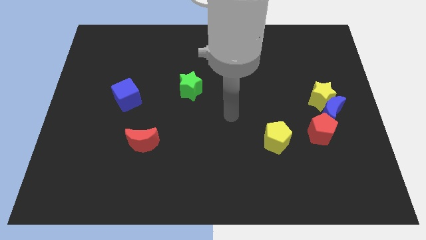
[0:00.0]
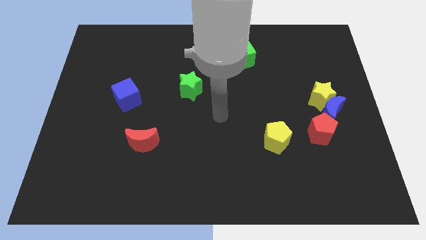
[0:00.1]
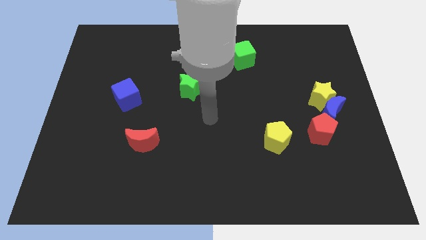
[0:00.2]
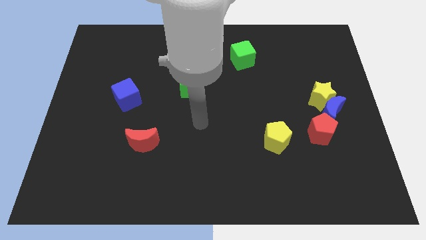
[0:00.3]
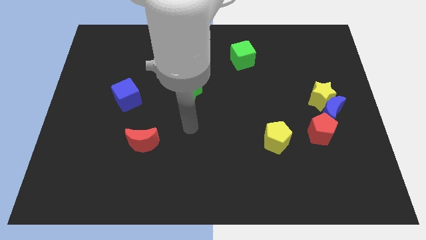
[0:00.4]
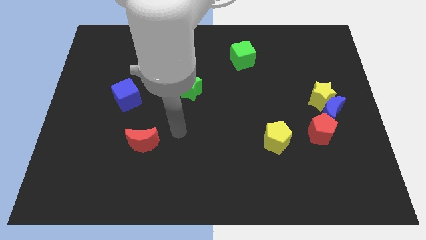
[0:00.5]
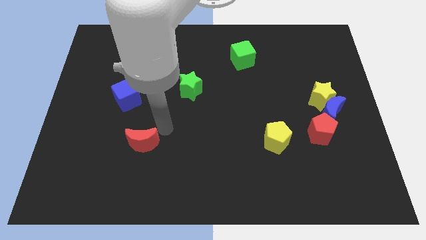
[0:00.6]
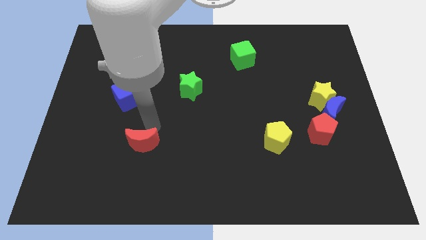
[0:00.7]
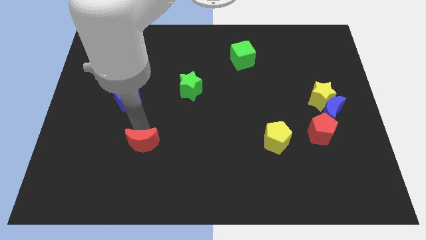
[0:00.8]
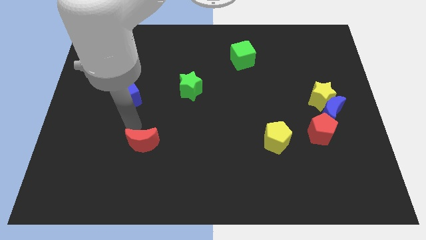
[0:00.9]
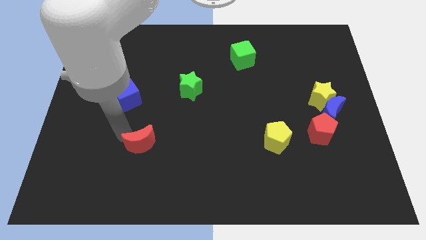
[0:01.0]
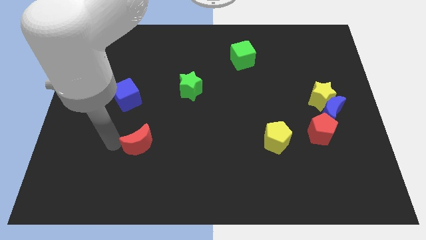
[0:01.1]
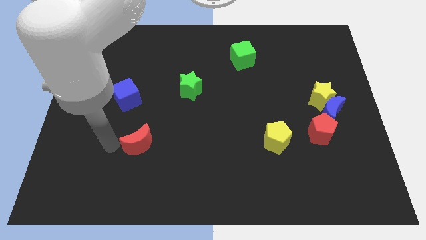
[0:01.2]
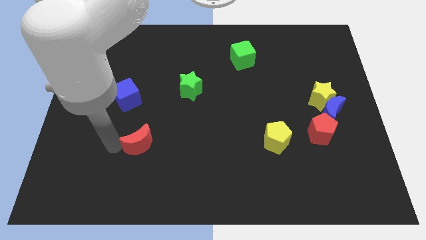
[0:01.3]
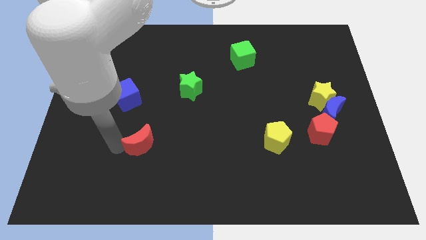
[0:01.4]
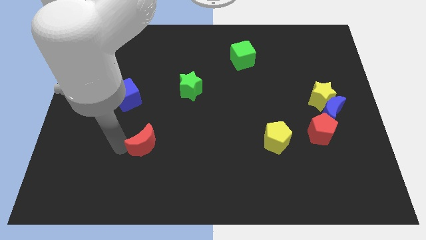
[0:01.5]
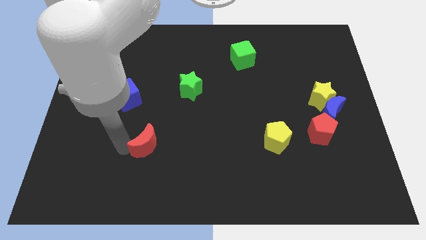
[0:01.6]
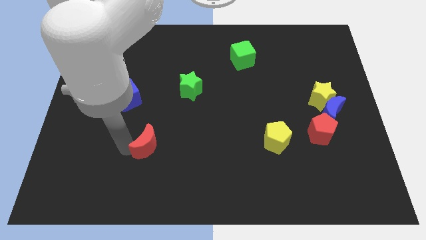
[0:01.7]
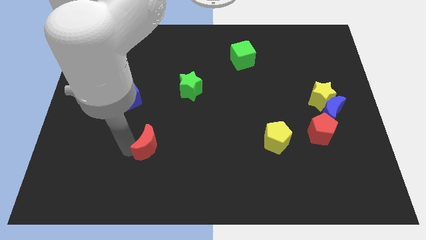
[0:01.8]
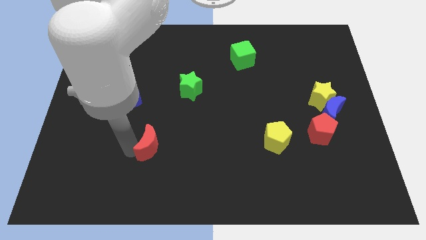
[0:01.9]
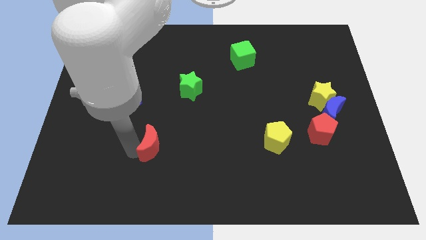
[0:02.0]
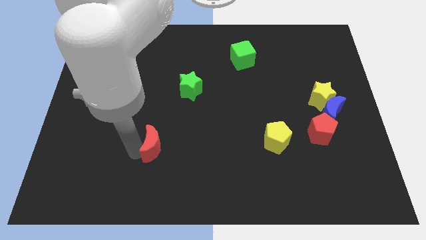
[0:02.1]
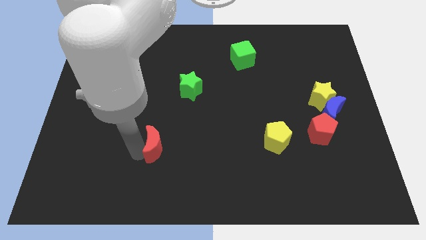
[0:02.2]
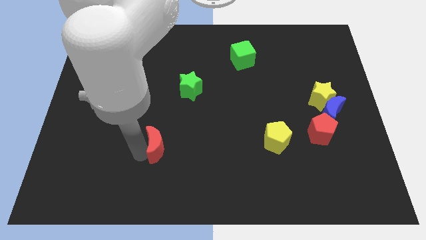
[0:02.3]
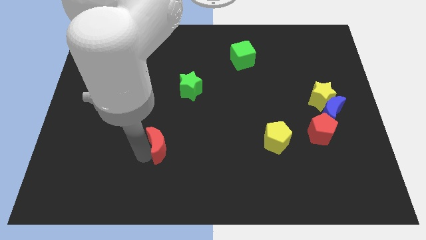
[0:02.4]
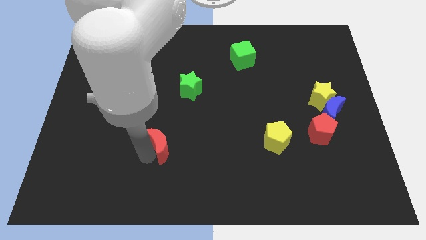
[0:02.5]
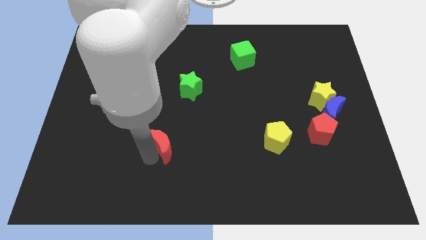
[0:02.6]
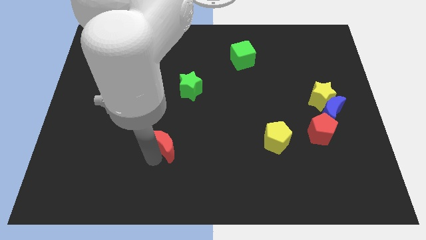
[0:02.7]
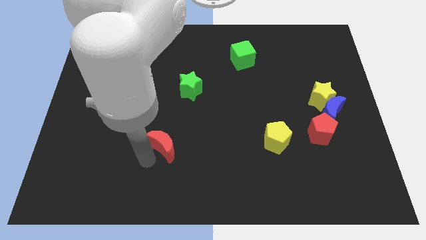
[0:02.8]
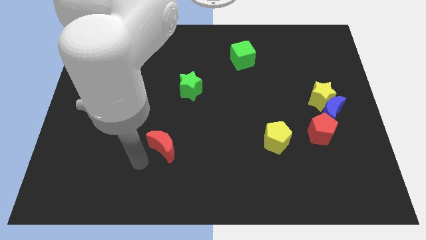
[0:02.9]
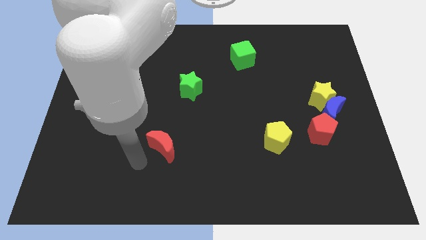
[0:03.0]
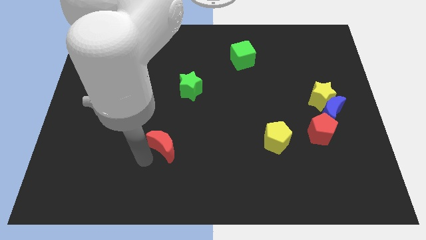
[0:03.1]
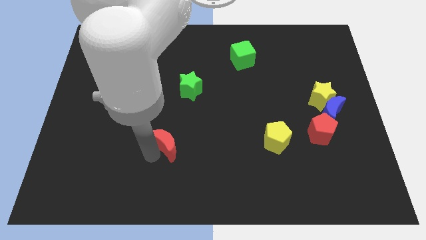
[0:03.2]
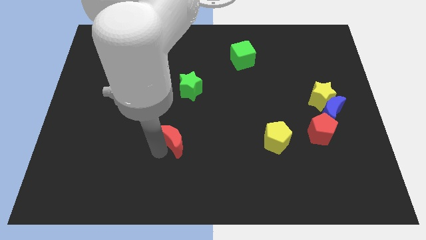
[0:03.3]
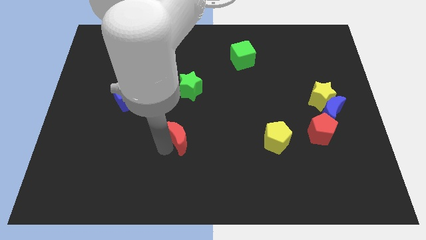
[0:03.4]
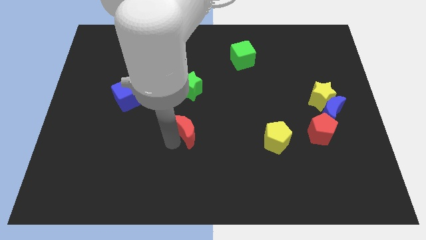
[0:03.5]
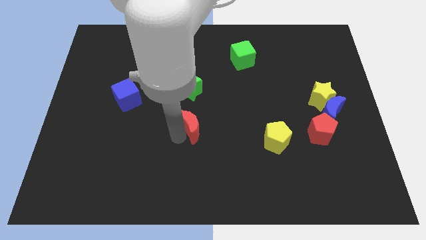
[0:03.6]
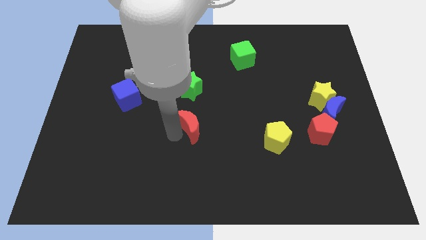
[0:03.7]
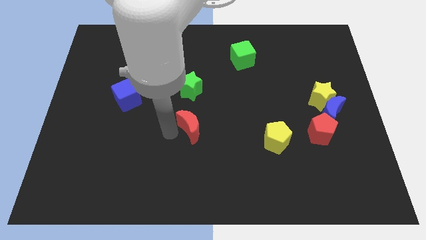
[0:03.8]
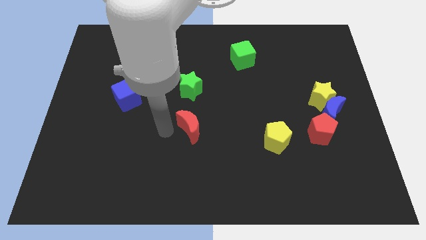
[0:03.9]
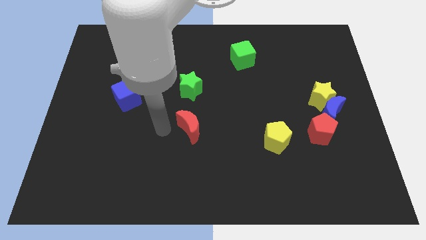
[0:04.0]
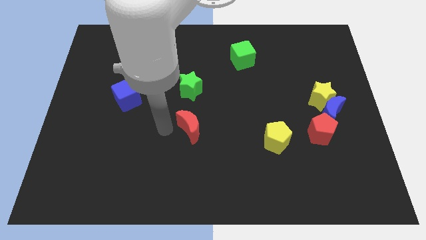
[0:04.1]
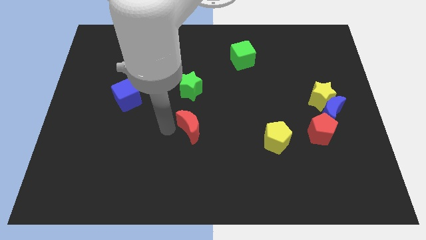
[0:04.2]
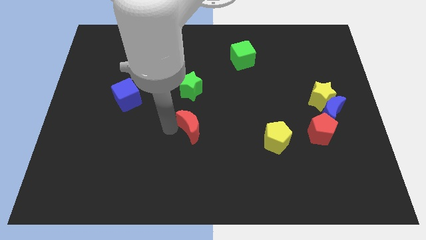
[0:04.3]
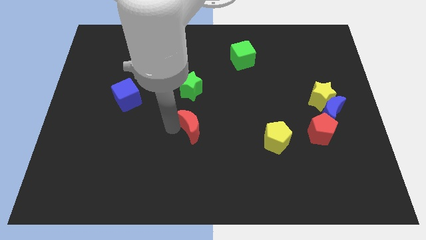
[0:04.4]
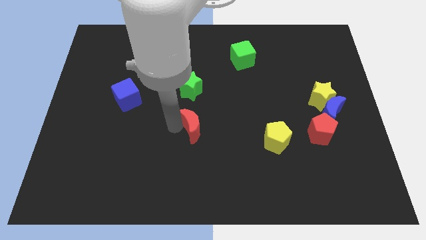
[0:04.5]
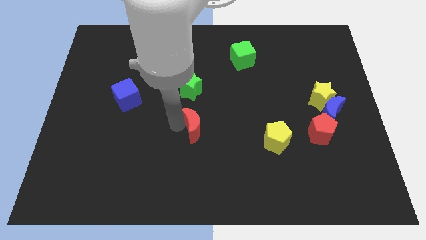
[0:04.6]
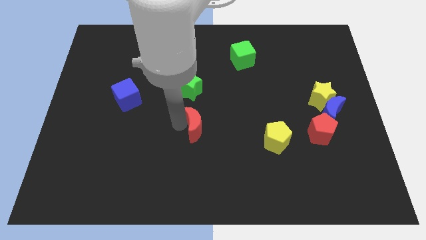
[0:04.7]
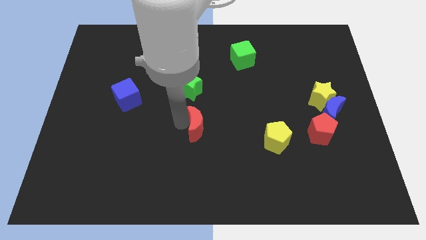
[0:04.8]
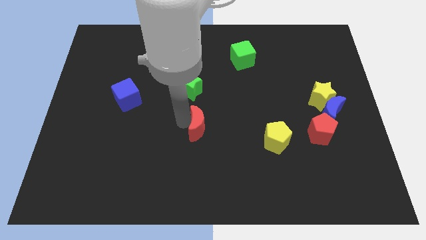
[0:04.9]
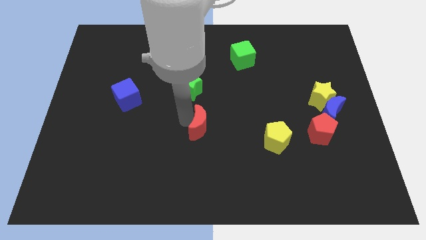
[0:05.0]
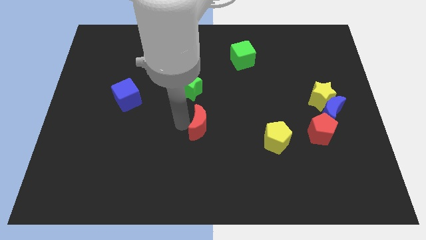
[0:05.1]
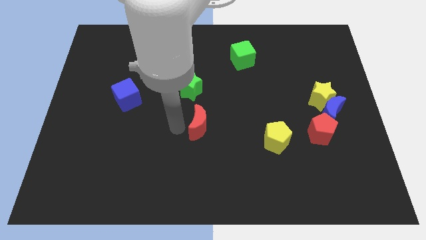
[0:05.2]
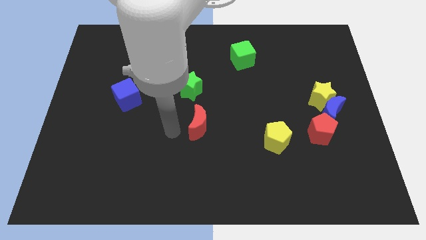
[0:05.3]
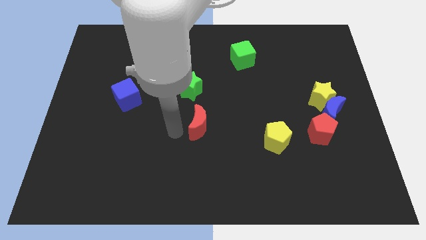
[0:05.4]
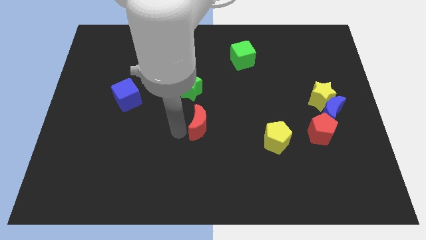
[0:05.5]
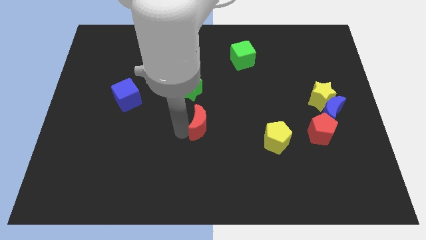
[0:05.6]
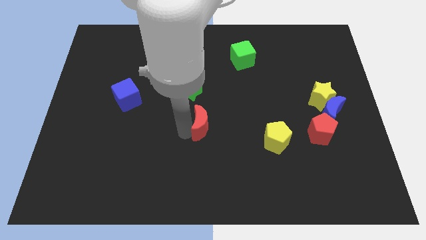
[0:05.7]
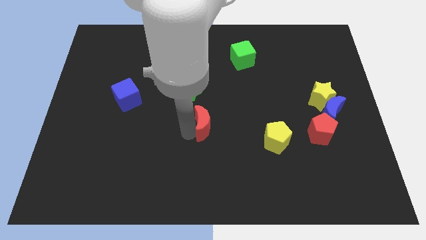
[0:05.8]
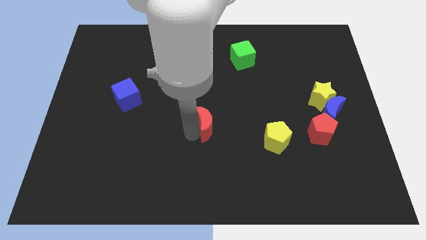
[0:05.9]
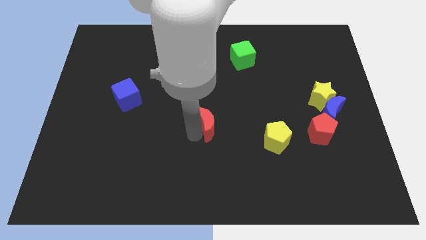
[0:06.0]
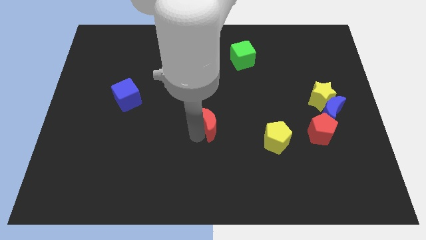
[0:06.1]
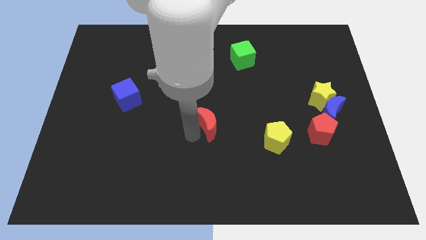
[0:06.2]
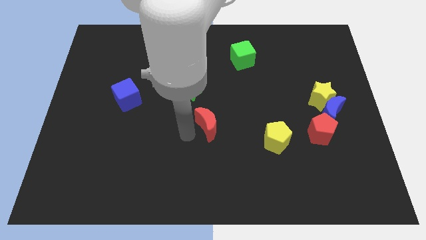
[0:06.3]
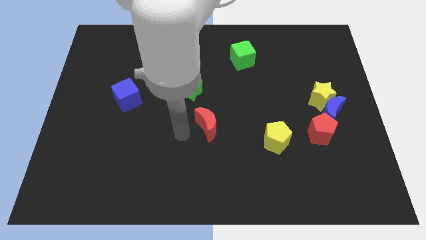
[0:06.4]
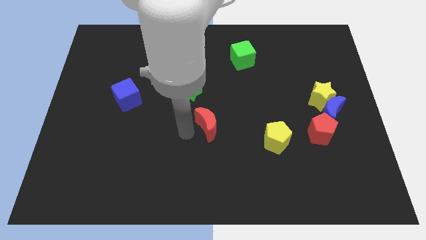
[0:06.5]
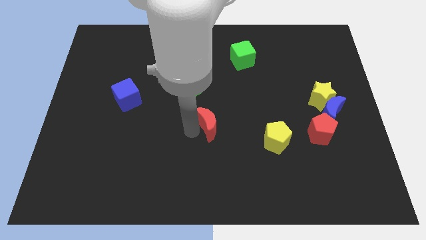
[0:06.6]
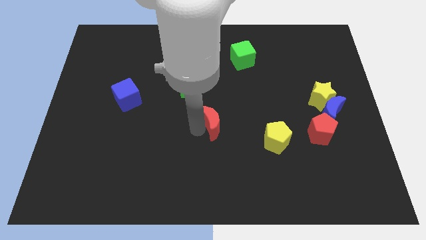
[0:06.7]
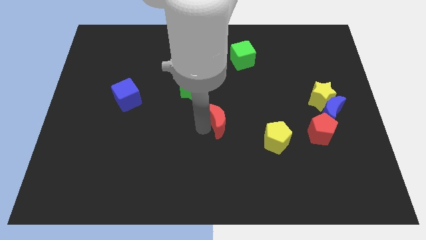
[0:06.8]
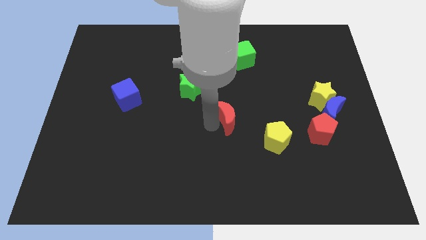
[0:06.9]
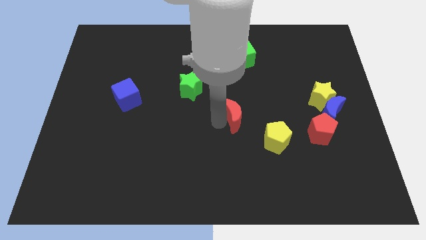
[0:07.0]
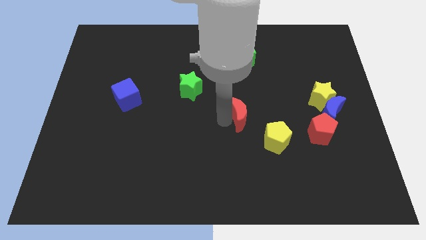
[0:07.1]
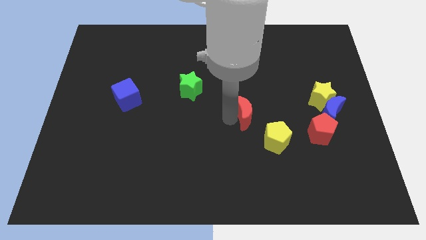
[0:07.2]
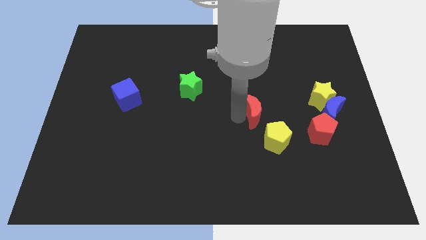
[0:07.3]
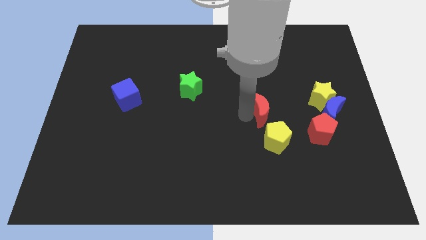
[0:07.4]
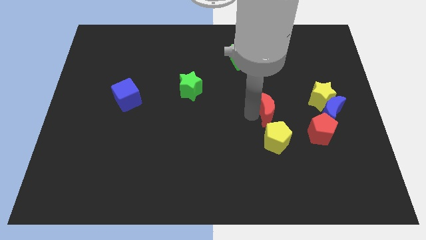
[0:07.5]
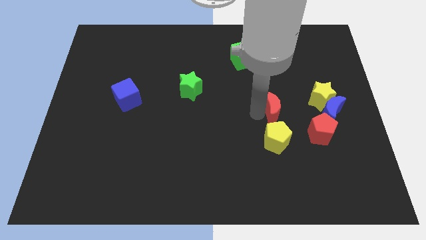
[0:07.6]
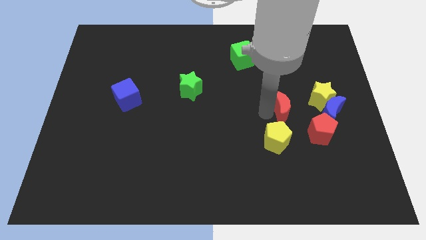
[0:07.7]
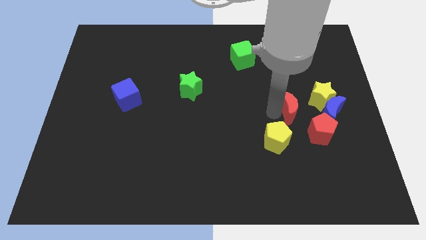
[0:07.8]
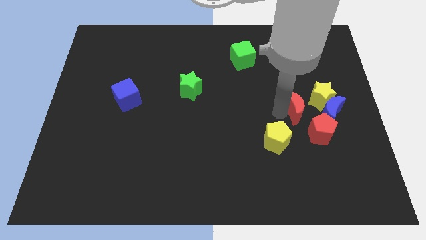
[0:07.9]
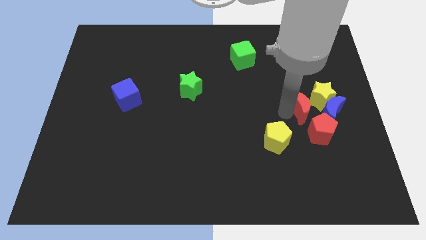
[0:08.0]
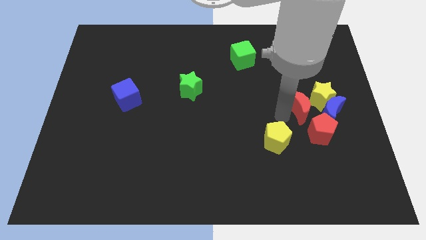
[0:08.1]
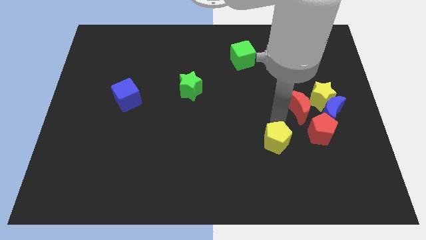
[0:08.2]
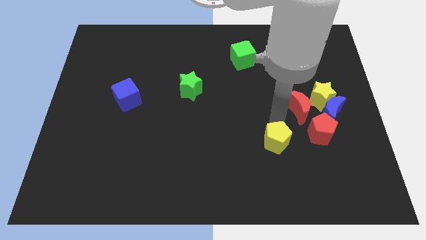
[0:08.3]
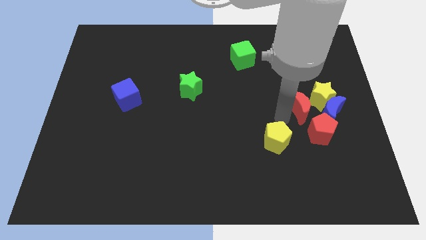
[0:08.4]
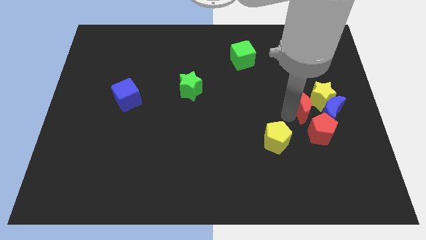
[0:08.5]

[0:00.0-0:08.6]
put the red moon next to the yellow star
